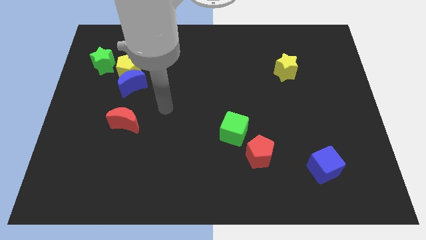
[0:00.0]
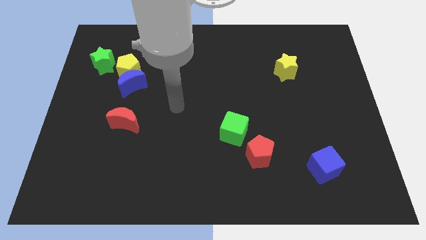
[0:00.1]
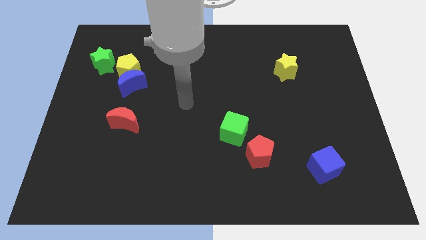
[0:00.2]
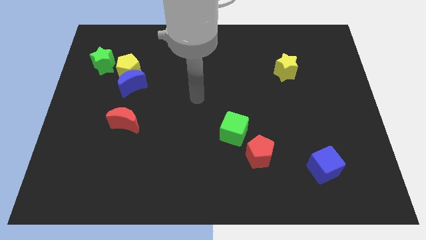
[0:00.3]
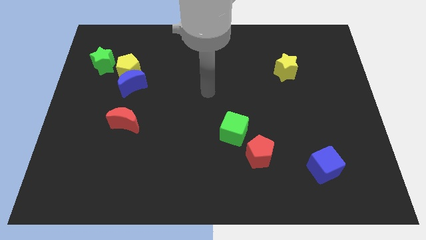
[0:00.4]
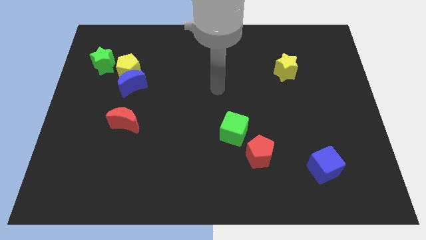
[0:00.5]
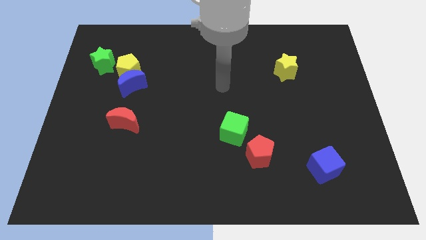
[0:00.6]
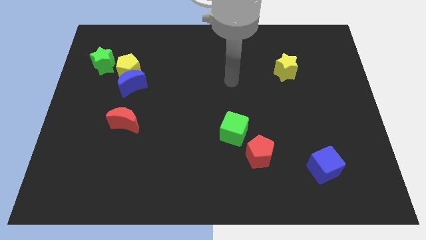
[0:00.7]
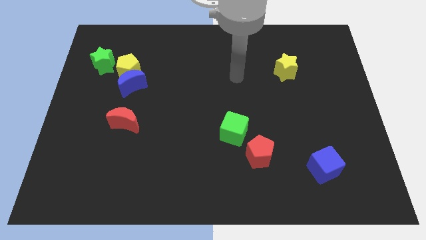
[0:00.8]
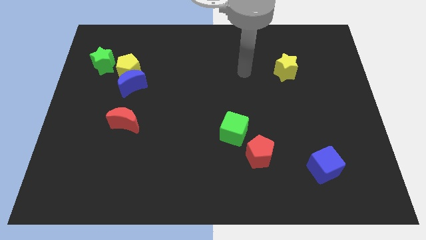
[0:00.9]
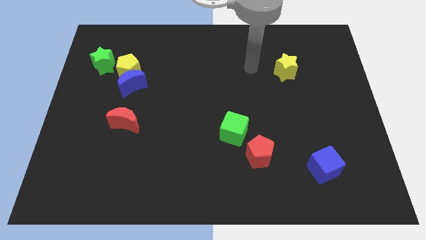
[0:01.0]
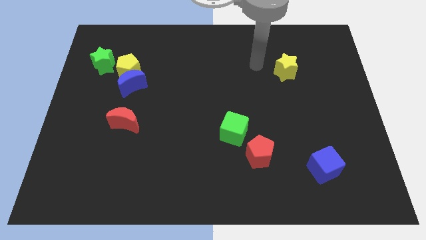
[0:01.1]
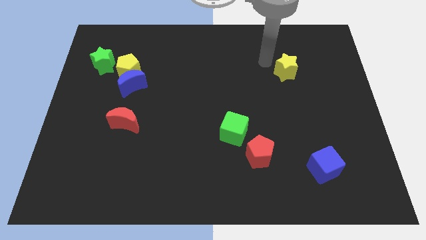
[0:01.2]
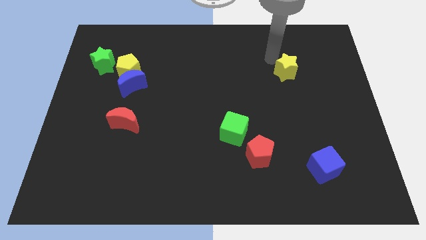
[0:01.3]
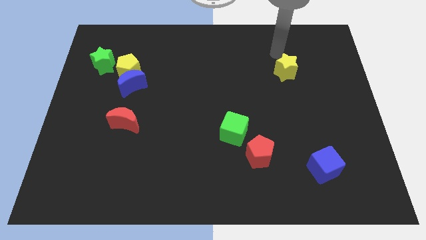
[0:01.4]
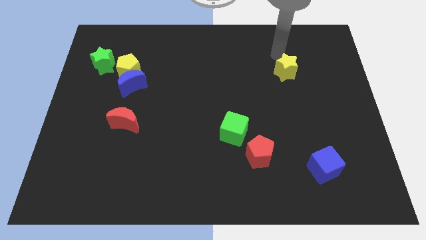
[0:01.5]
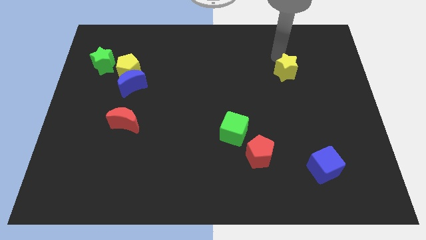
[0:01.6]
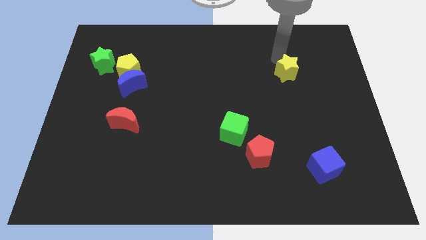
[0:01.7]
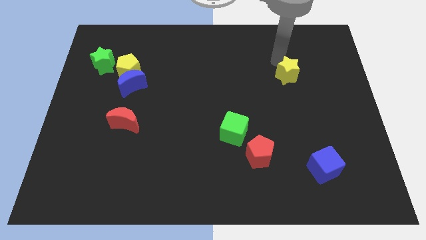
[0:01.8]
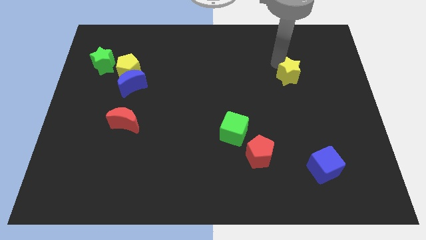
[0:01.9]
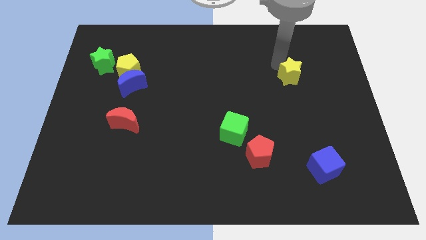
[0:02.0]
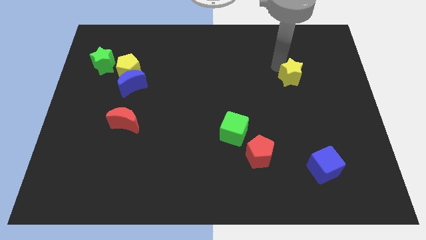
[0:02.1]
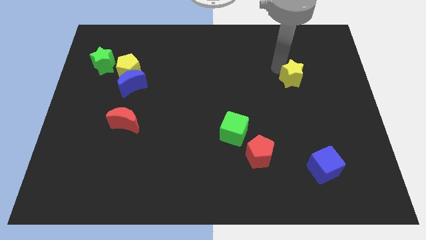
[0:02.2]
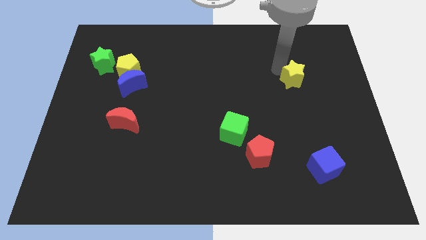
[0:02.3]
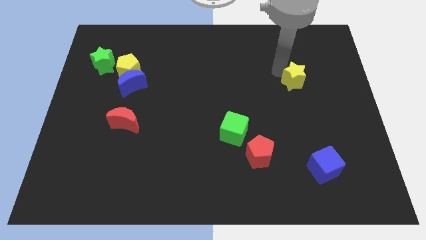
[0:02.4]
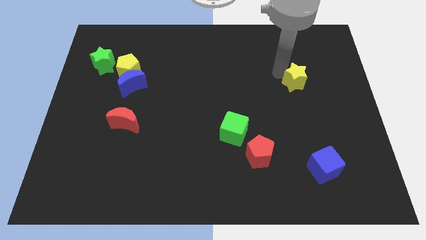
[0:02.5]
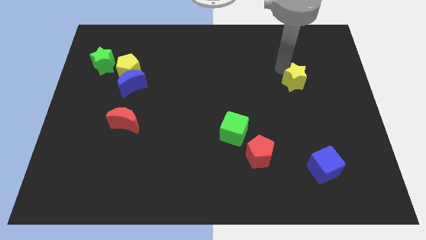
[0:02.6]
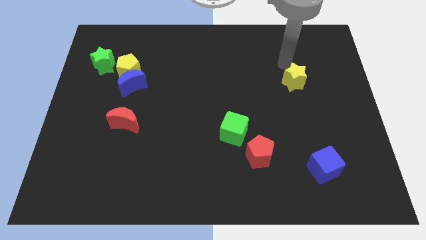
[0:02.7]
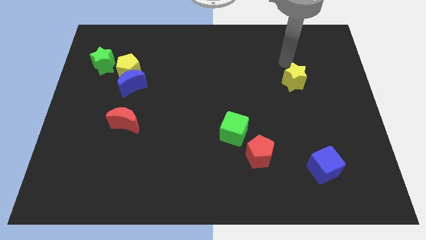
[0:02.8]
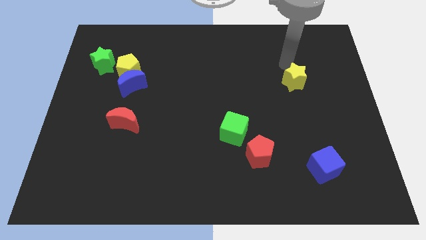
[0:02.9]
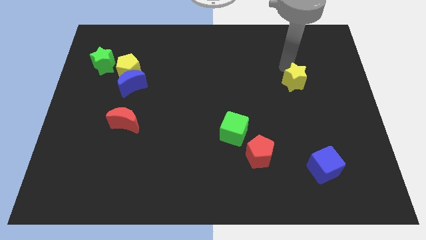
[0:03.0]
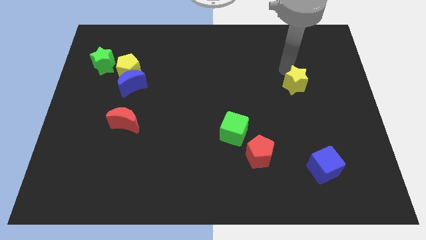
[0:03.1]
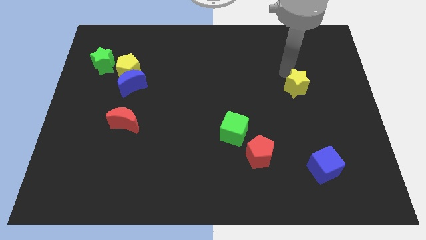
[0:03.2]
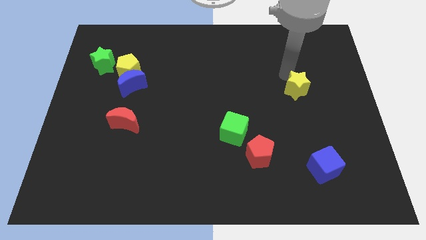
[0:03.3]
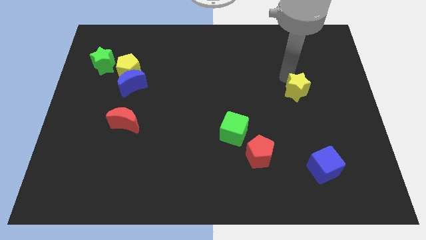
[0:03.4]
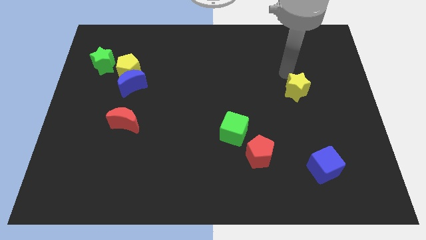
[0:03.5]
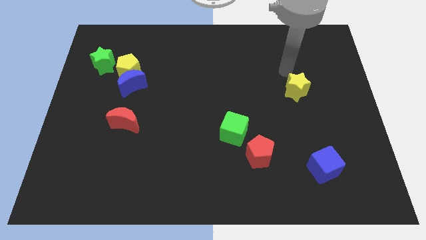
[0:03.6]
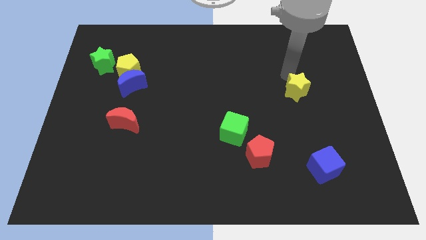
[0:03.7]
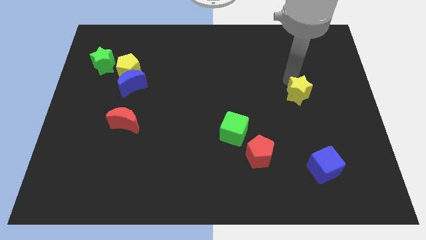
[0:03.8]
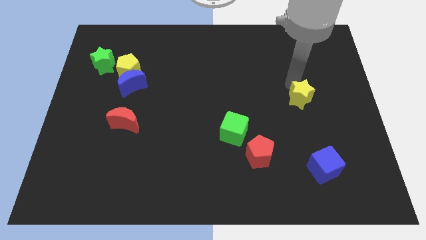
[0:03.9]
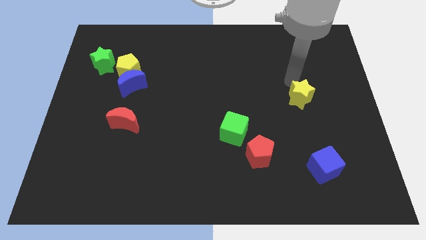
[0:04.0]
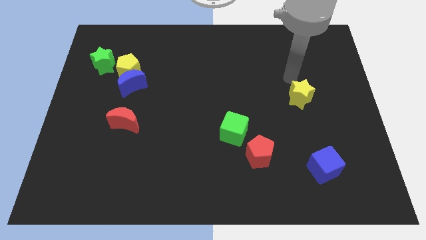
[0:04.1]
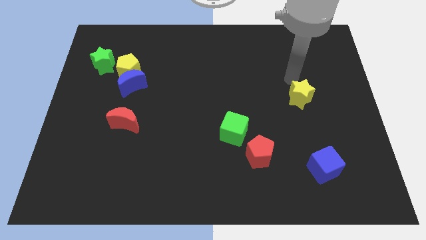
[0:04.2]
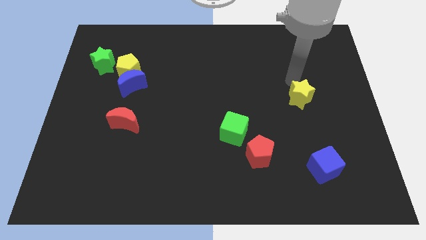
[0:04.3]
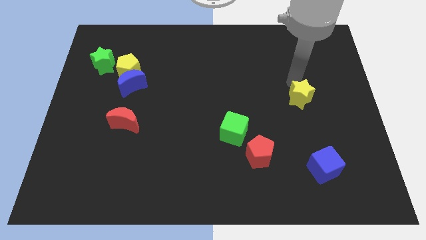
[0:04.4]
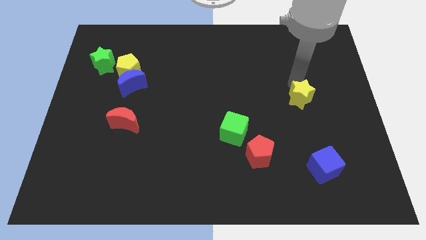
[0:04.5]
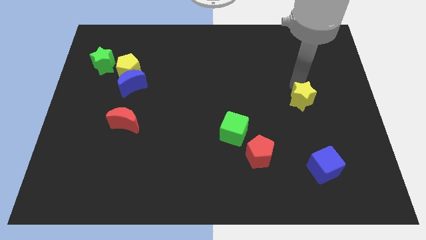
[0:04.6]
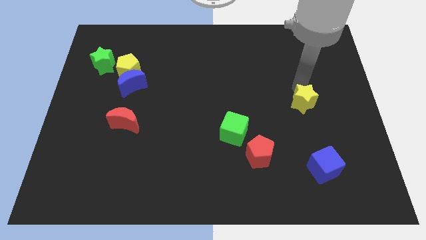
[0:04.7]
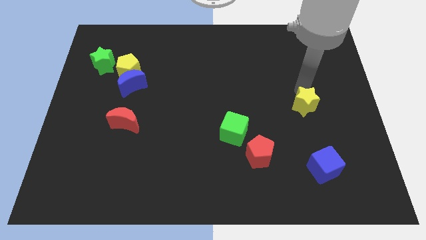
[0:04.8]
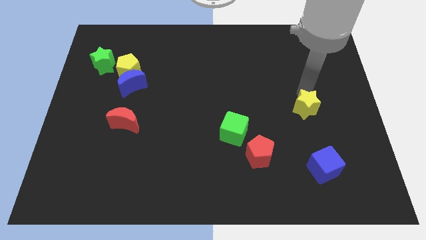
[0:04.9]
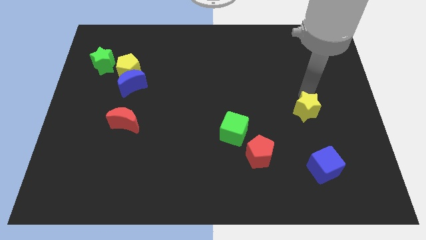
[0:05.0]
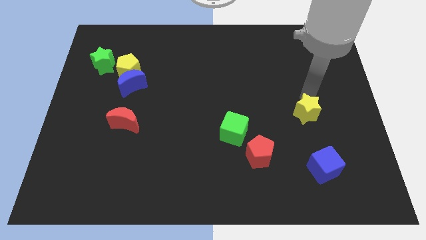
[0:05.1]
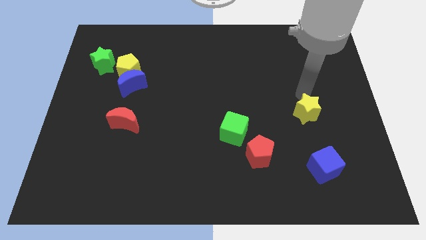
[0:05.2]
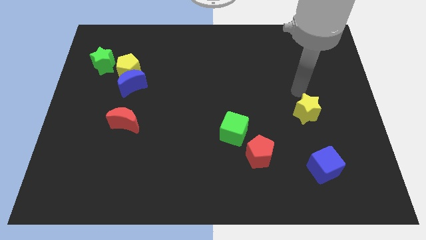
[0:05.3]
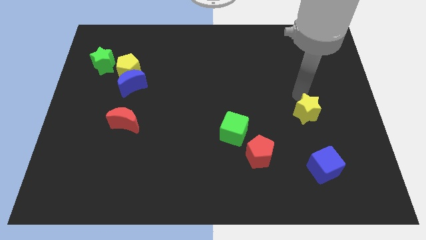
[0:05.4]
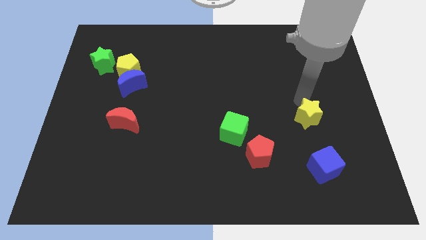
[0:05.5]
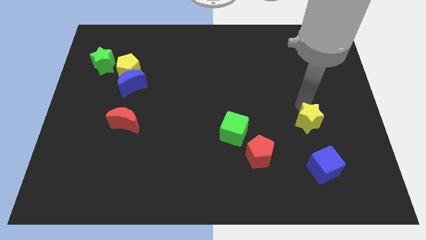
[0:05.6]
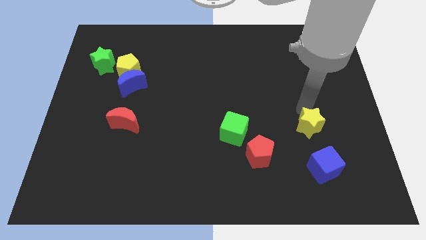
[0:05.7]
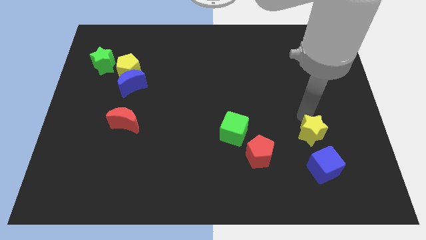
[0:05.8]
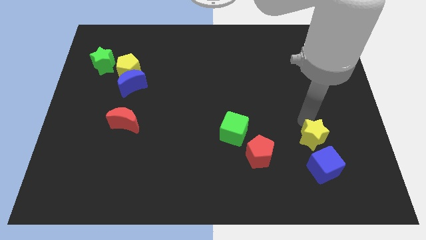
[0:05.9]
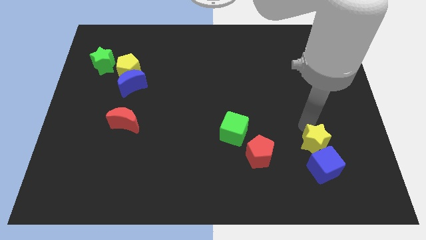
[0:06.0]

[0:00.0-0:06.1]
push the yellow star to the blue cube

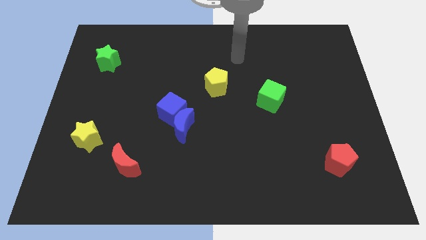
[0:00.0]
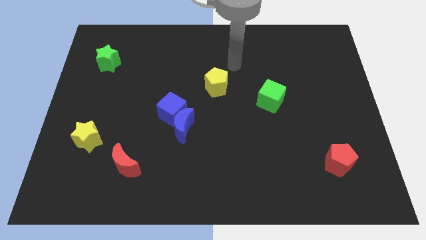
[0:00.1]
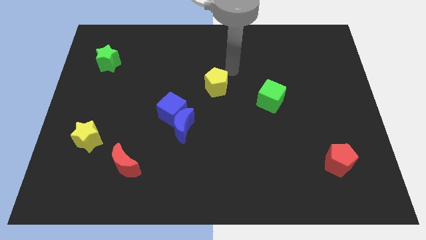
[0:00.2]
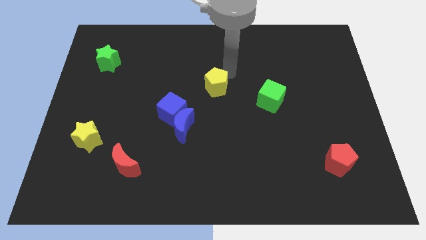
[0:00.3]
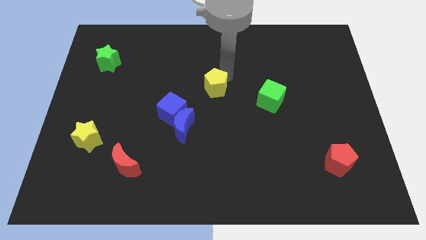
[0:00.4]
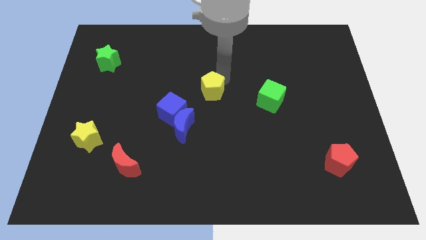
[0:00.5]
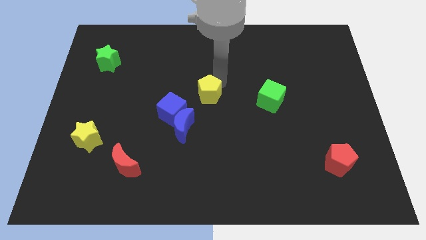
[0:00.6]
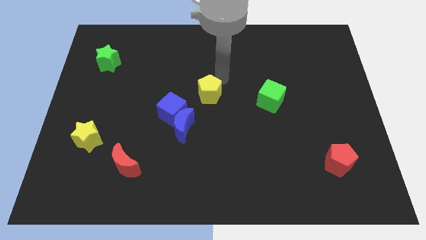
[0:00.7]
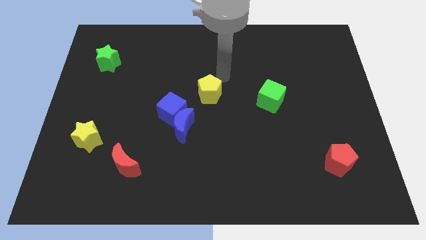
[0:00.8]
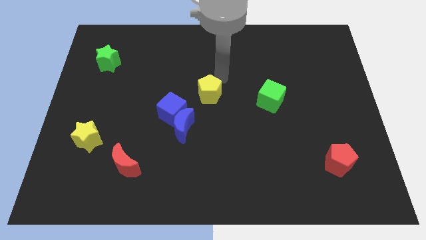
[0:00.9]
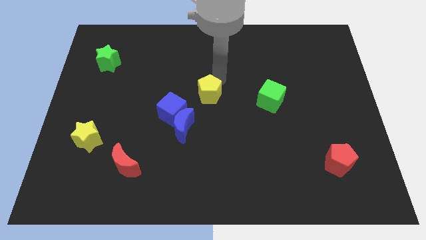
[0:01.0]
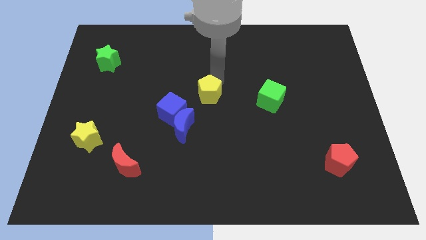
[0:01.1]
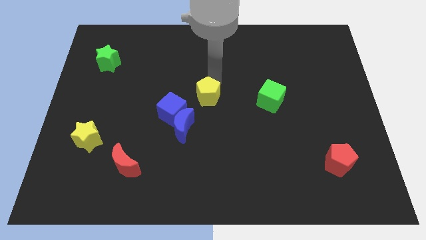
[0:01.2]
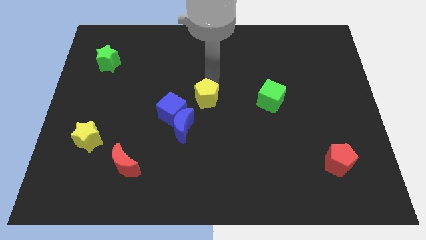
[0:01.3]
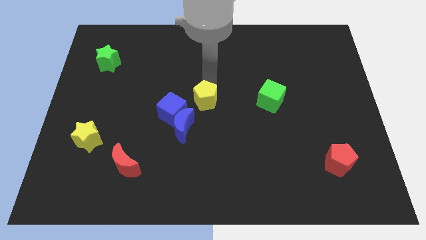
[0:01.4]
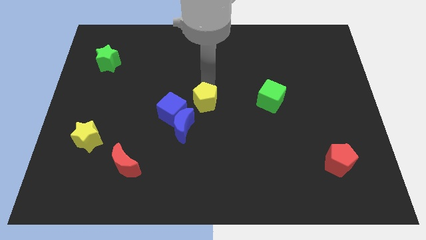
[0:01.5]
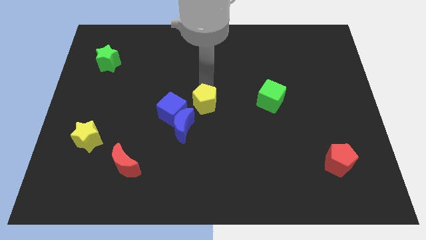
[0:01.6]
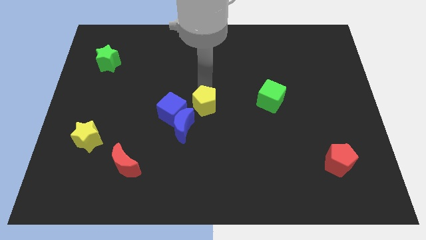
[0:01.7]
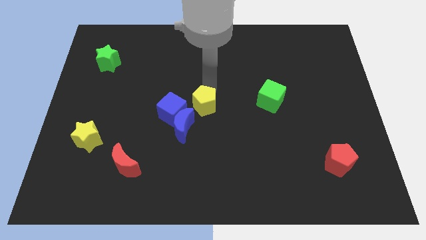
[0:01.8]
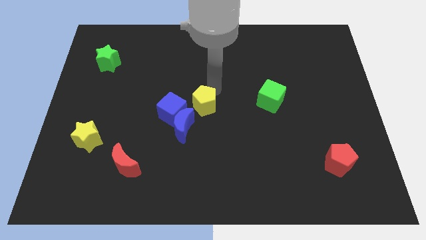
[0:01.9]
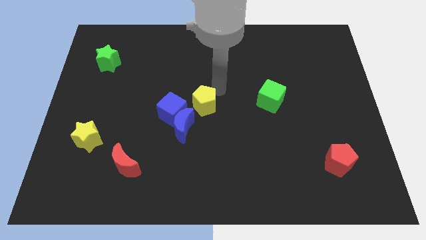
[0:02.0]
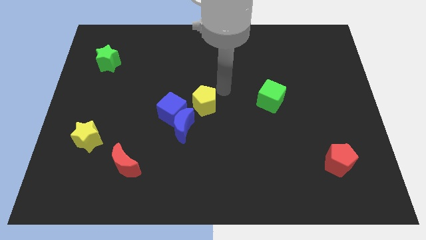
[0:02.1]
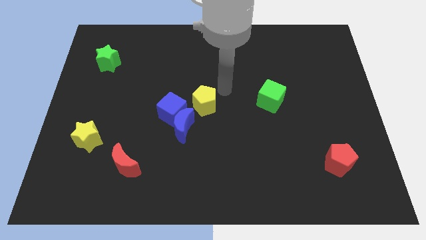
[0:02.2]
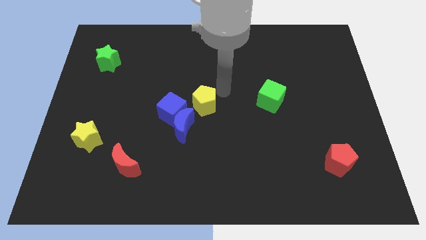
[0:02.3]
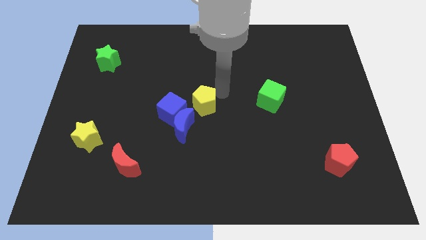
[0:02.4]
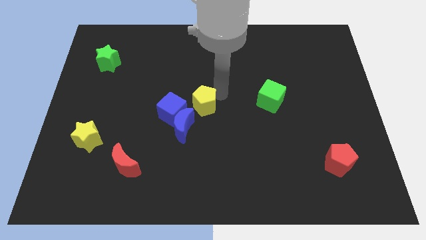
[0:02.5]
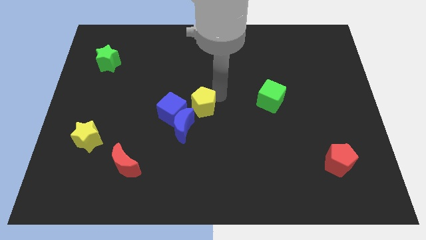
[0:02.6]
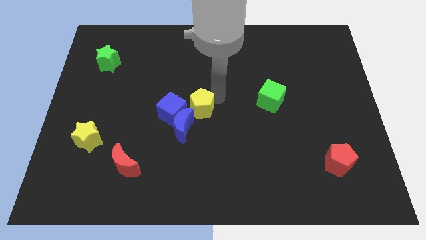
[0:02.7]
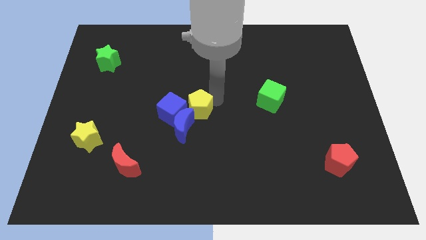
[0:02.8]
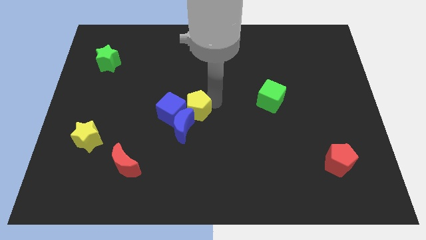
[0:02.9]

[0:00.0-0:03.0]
move the yellow pentagon towards the blue cube
